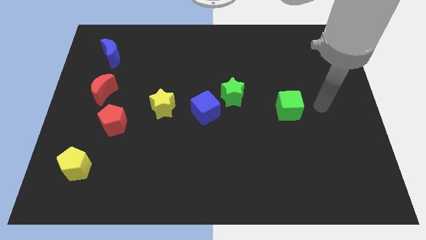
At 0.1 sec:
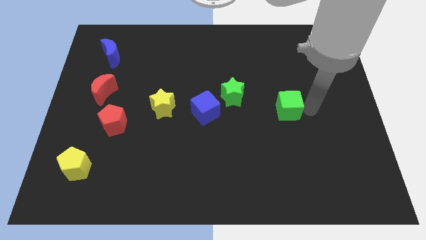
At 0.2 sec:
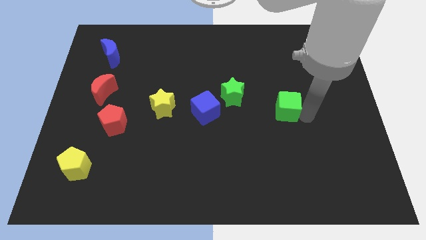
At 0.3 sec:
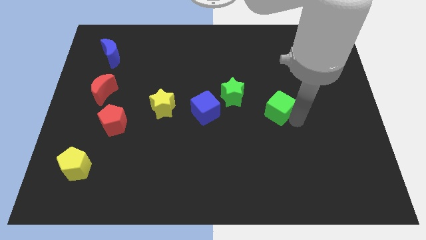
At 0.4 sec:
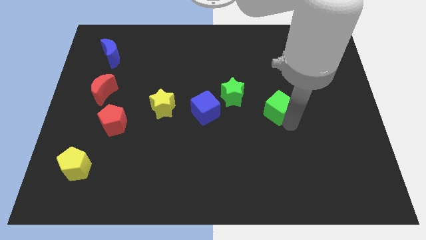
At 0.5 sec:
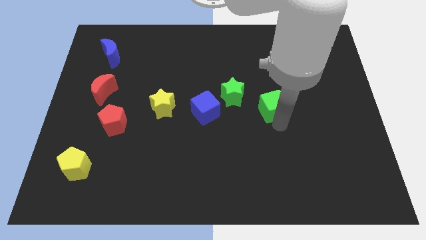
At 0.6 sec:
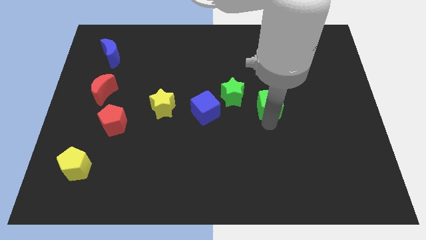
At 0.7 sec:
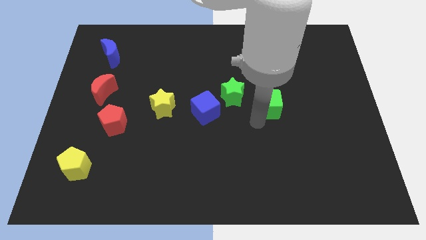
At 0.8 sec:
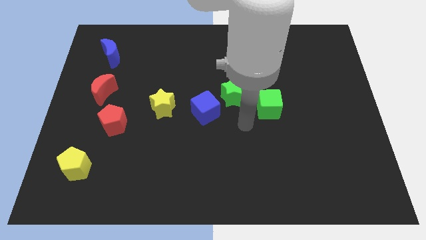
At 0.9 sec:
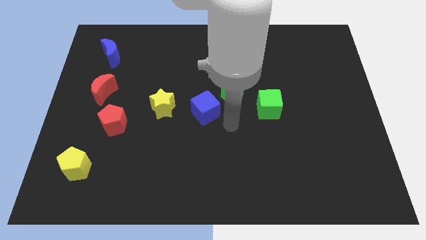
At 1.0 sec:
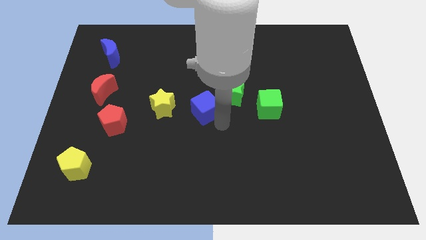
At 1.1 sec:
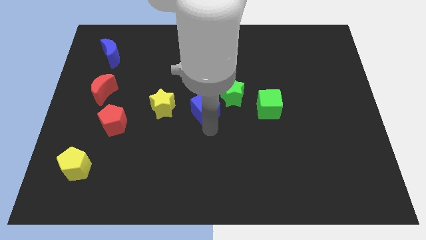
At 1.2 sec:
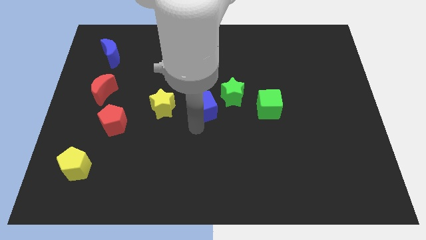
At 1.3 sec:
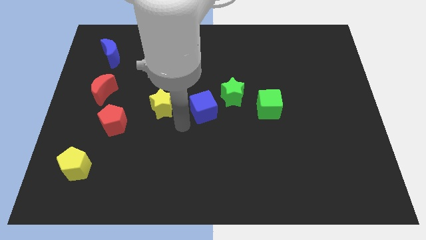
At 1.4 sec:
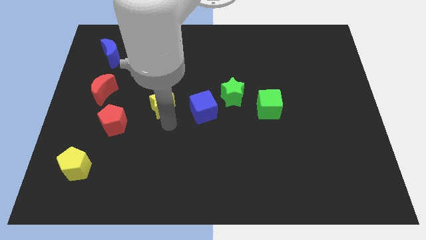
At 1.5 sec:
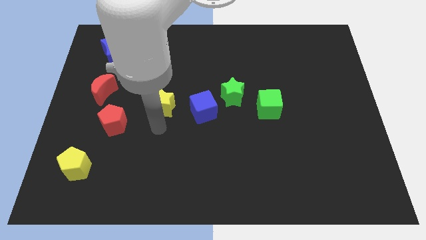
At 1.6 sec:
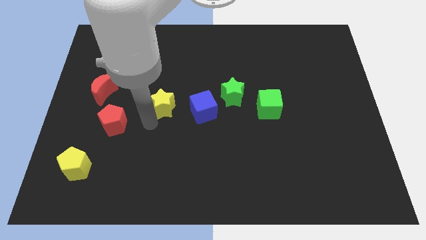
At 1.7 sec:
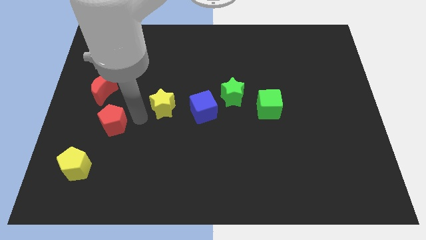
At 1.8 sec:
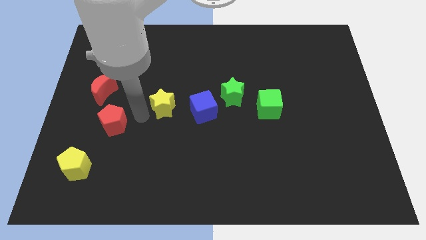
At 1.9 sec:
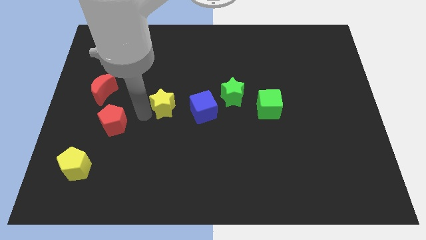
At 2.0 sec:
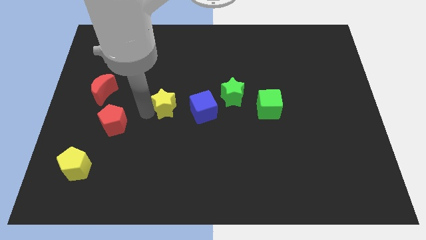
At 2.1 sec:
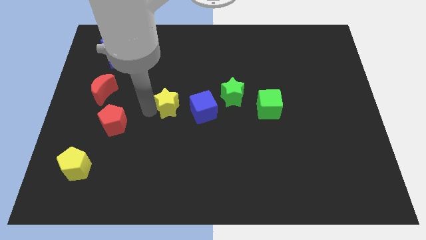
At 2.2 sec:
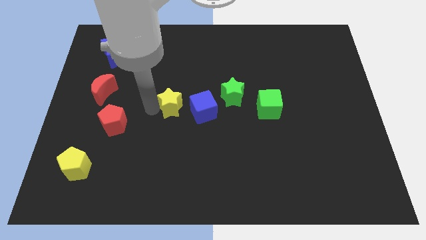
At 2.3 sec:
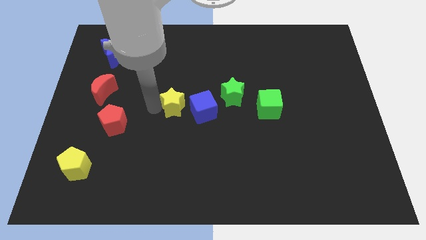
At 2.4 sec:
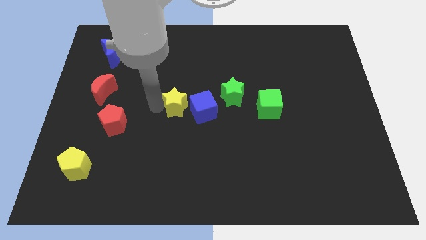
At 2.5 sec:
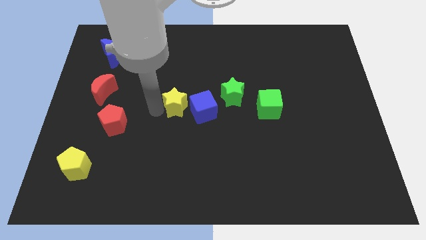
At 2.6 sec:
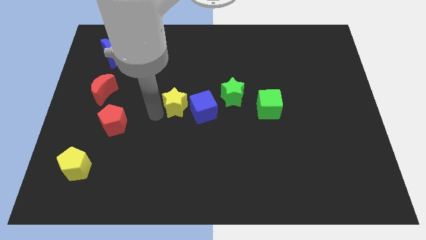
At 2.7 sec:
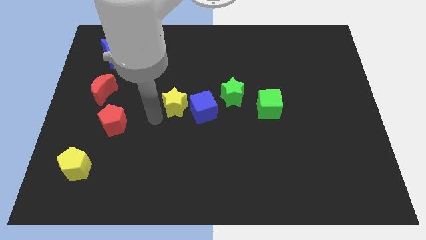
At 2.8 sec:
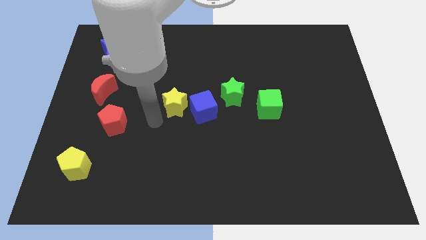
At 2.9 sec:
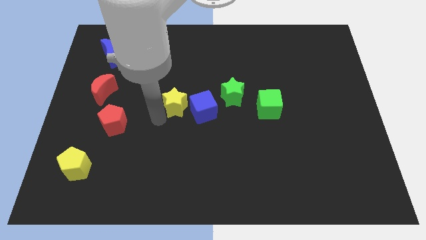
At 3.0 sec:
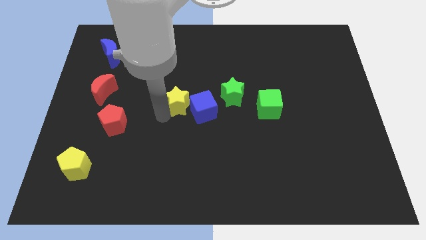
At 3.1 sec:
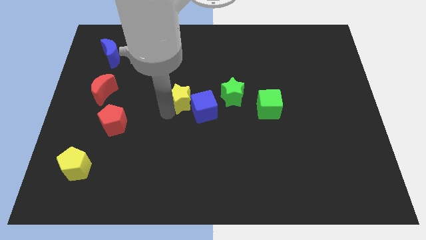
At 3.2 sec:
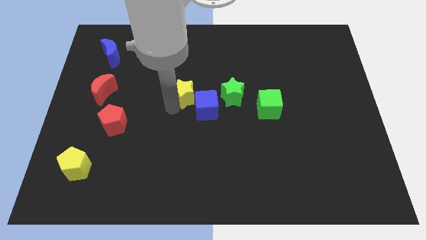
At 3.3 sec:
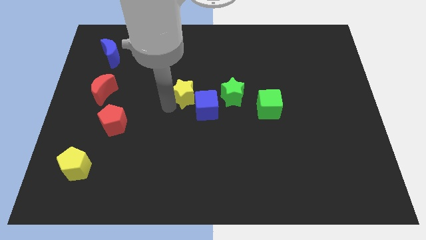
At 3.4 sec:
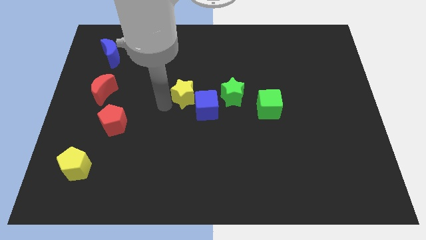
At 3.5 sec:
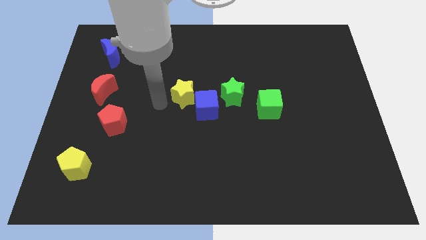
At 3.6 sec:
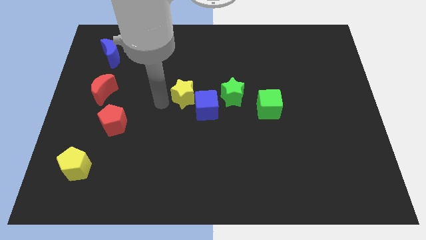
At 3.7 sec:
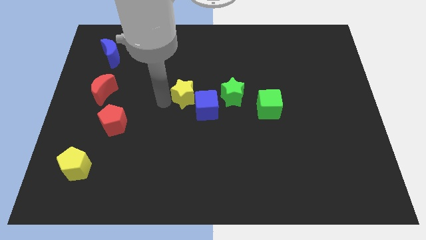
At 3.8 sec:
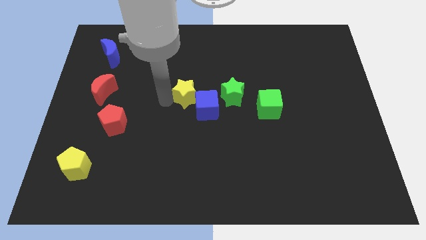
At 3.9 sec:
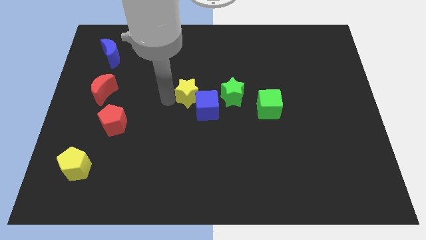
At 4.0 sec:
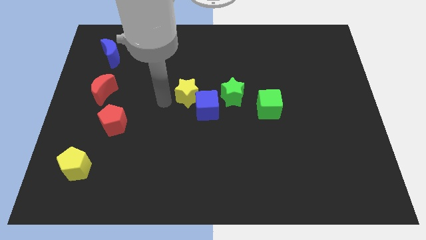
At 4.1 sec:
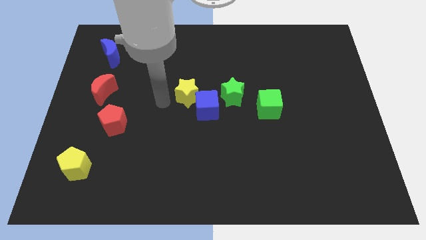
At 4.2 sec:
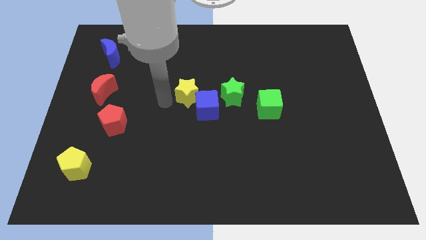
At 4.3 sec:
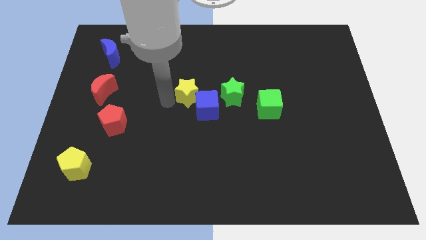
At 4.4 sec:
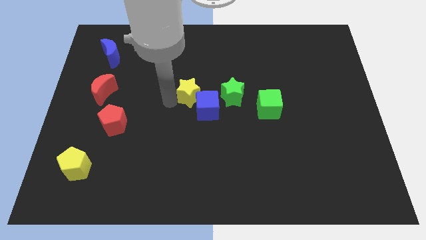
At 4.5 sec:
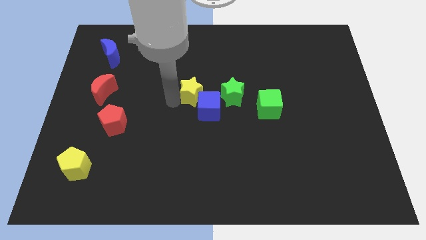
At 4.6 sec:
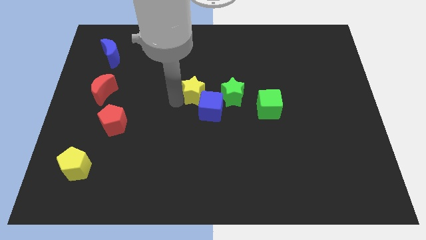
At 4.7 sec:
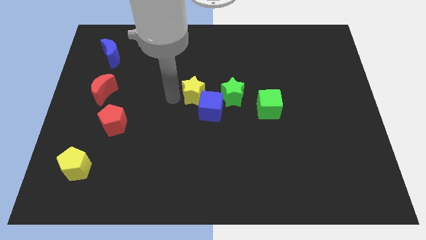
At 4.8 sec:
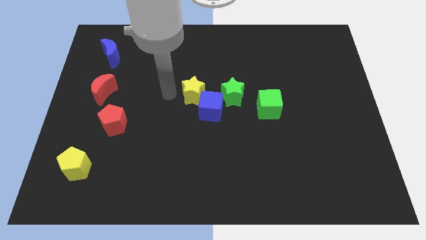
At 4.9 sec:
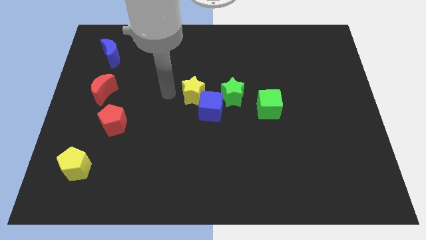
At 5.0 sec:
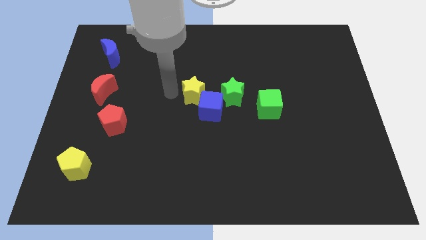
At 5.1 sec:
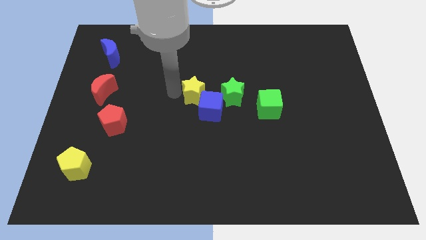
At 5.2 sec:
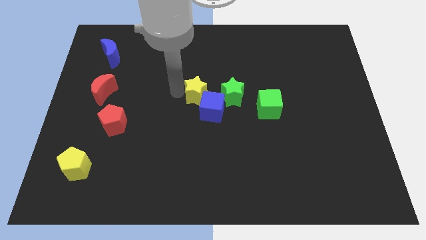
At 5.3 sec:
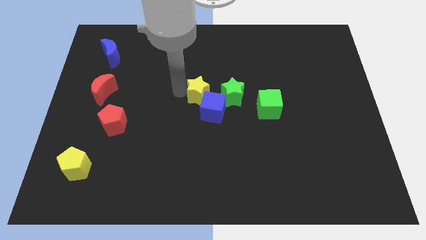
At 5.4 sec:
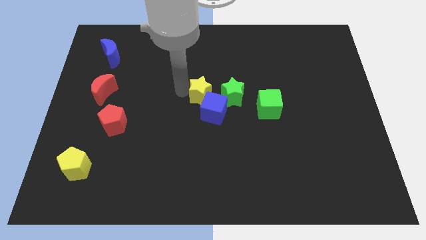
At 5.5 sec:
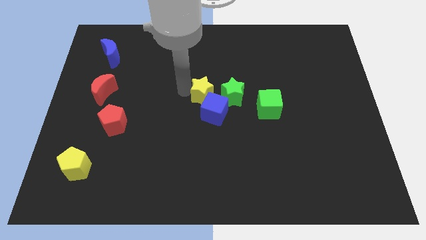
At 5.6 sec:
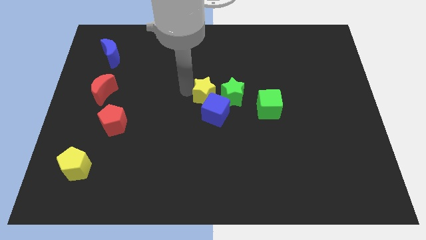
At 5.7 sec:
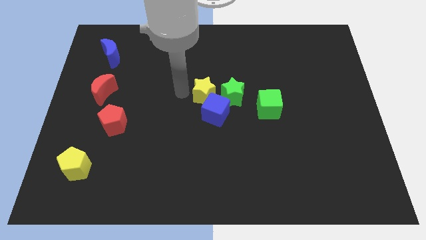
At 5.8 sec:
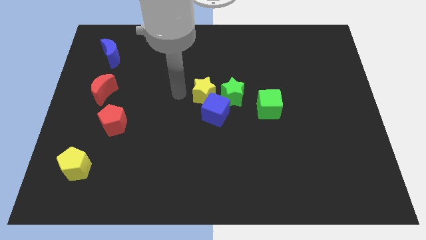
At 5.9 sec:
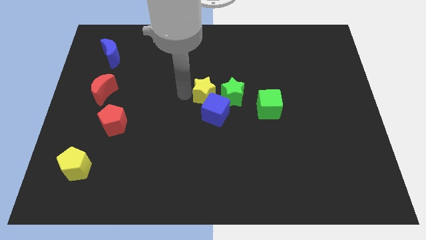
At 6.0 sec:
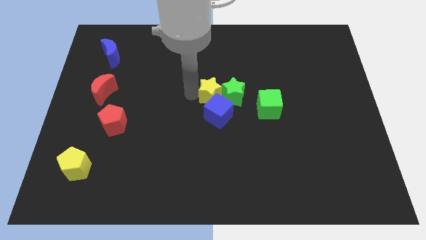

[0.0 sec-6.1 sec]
put the yellow star towards the green star

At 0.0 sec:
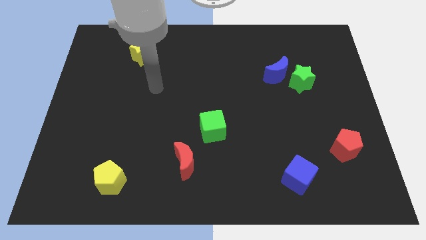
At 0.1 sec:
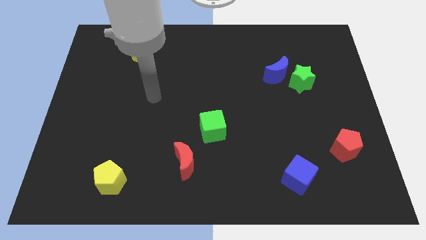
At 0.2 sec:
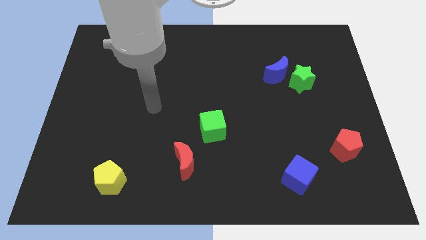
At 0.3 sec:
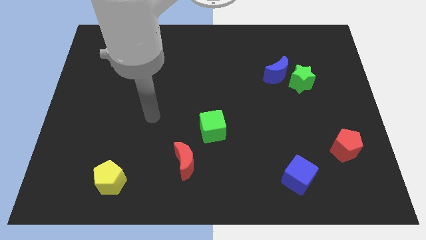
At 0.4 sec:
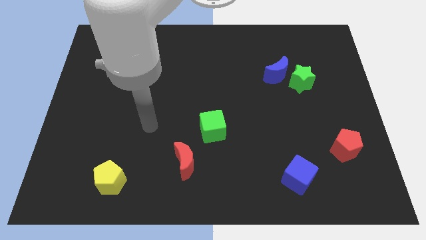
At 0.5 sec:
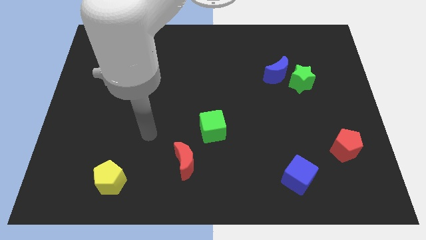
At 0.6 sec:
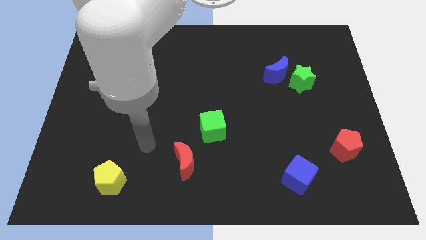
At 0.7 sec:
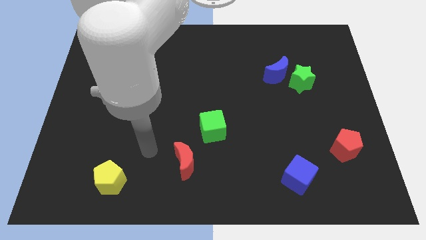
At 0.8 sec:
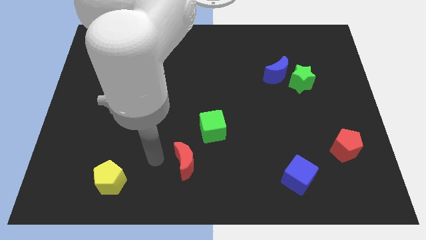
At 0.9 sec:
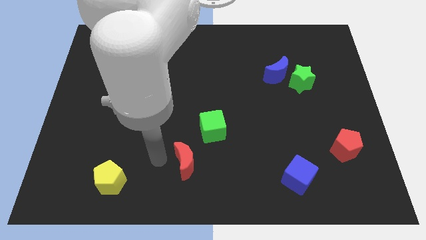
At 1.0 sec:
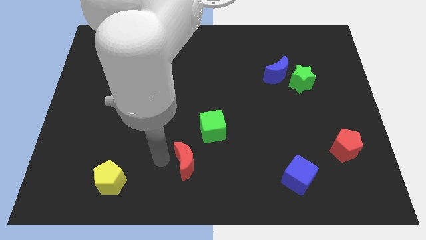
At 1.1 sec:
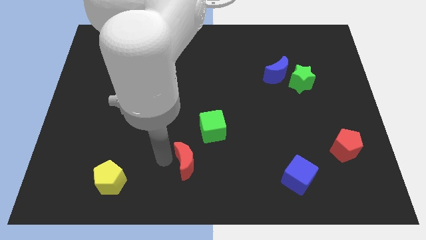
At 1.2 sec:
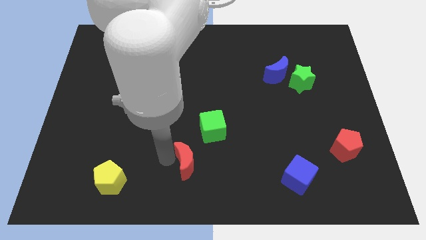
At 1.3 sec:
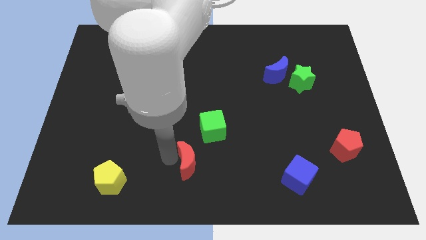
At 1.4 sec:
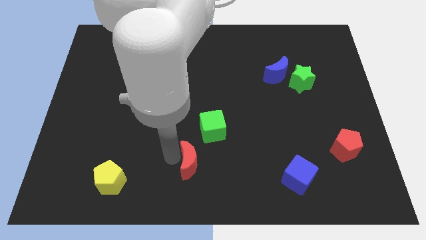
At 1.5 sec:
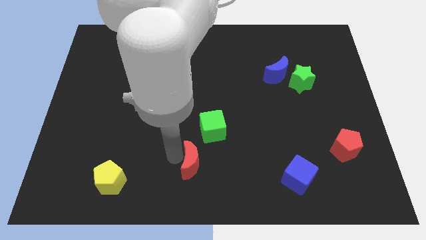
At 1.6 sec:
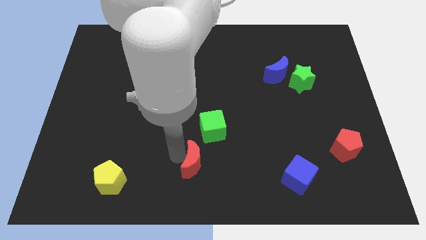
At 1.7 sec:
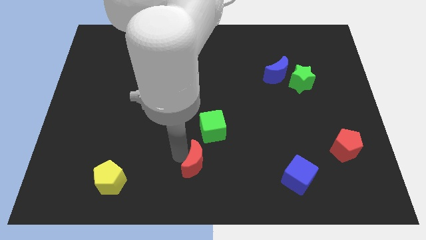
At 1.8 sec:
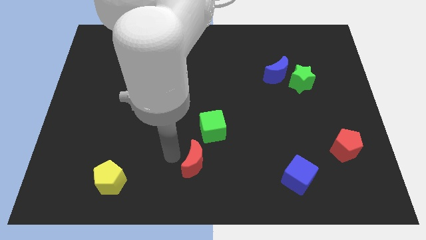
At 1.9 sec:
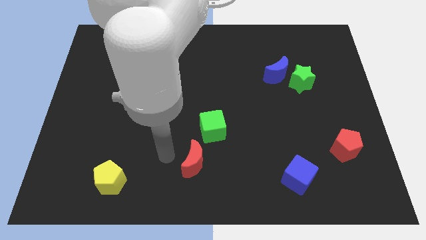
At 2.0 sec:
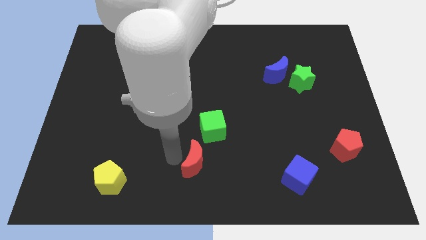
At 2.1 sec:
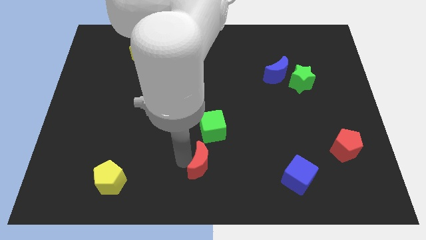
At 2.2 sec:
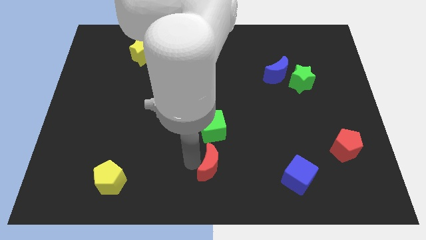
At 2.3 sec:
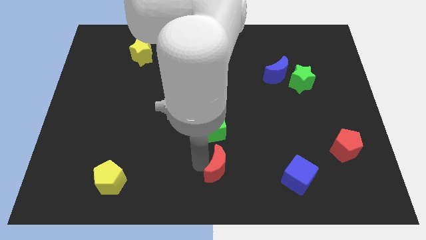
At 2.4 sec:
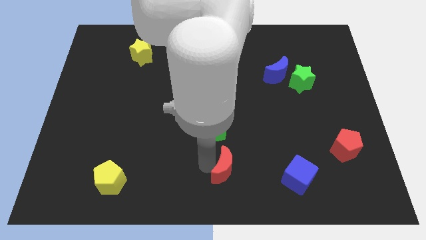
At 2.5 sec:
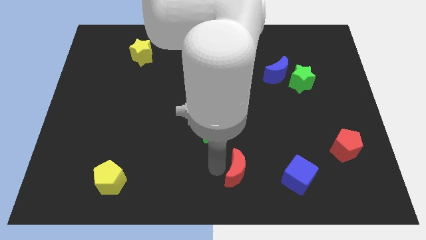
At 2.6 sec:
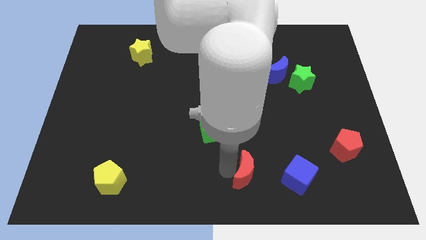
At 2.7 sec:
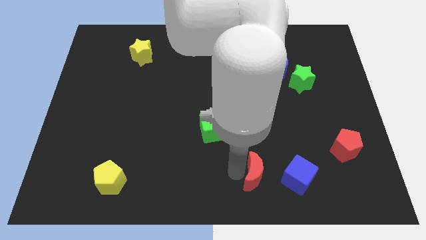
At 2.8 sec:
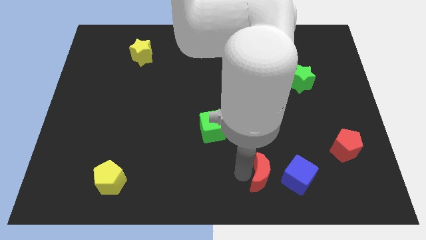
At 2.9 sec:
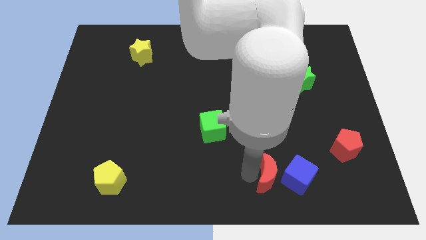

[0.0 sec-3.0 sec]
push the red moon close to the blue cube
